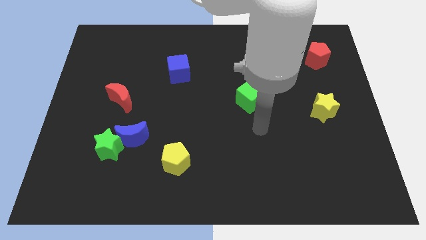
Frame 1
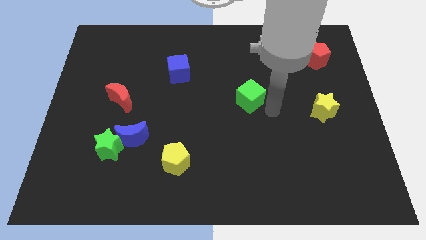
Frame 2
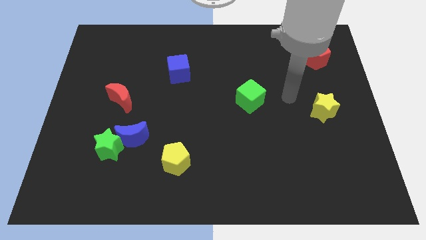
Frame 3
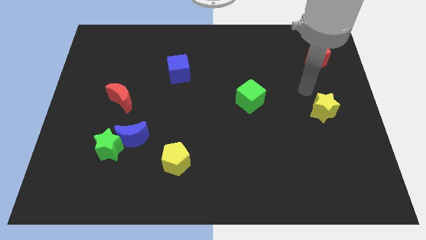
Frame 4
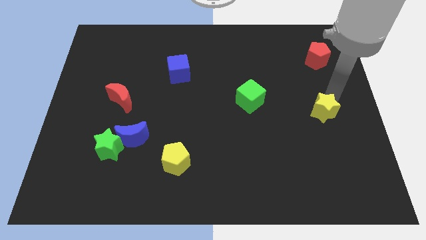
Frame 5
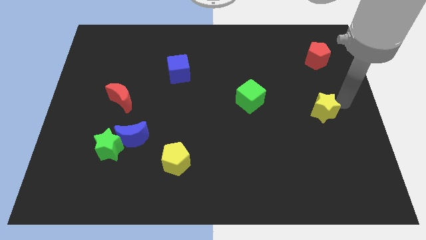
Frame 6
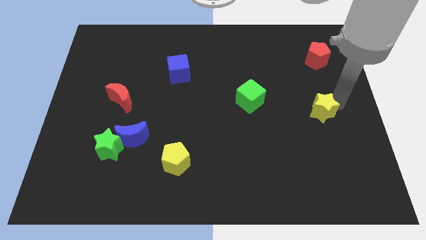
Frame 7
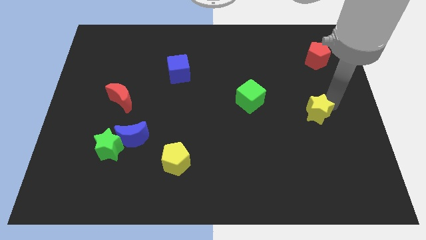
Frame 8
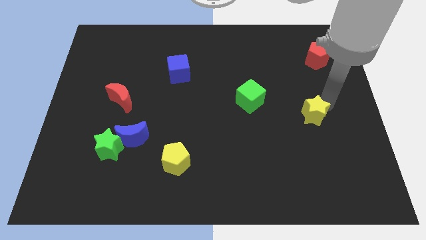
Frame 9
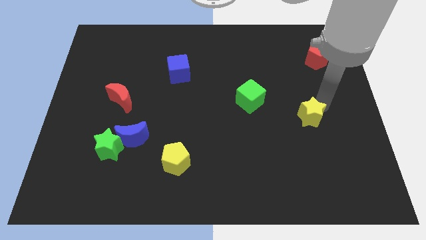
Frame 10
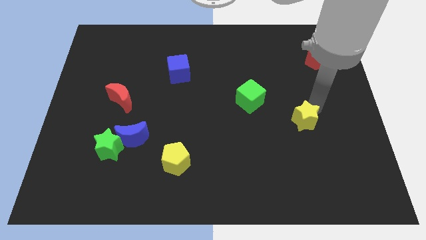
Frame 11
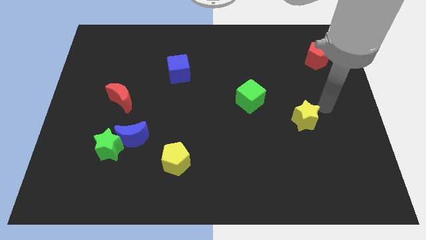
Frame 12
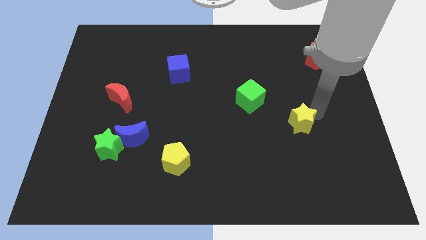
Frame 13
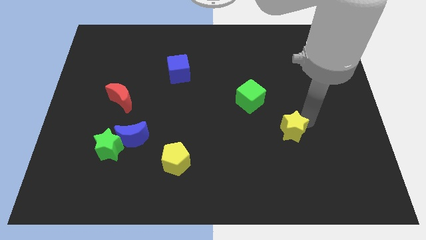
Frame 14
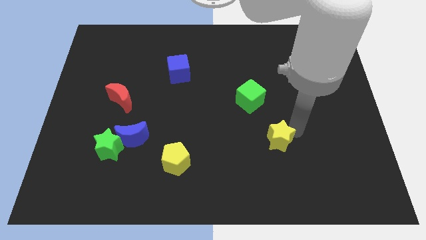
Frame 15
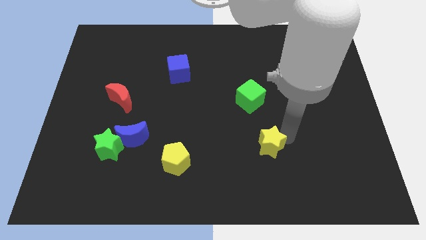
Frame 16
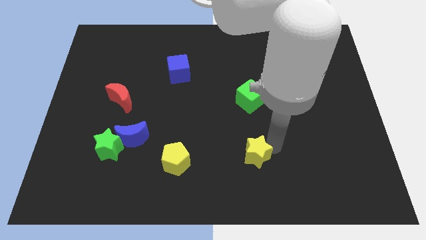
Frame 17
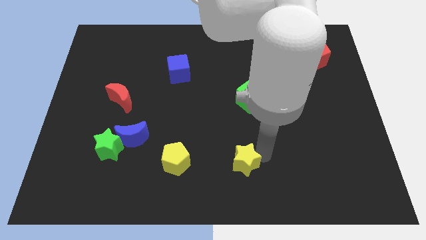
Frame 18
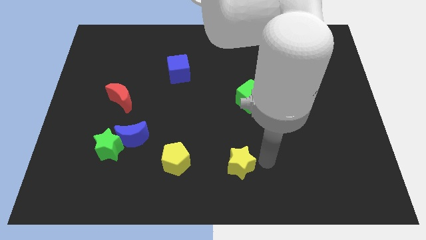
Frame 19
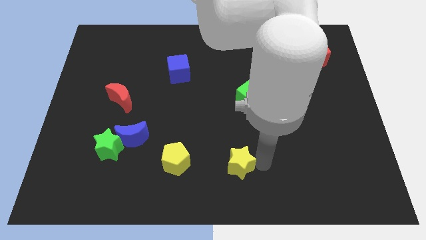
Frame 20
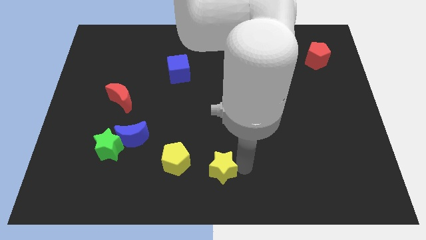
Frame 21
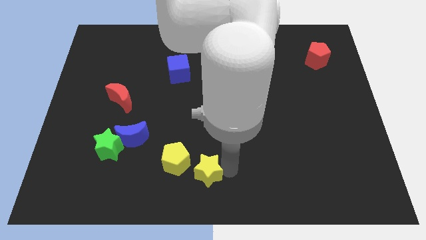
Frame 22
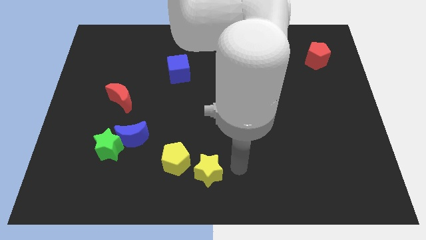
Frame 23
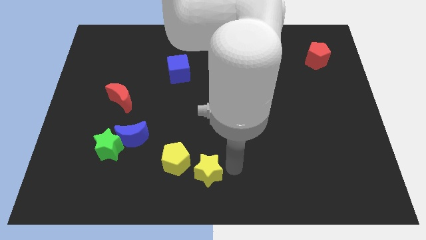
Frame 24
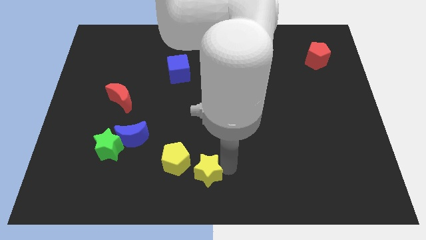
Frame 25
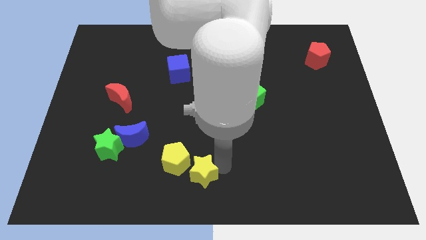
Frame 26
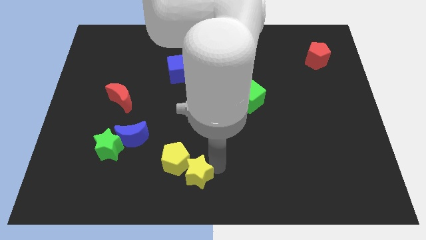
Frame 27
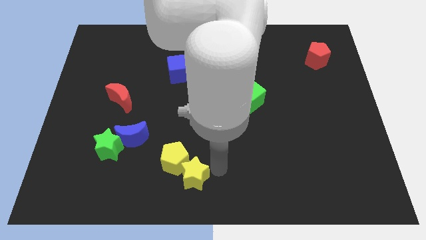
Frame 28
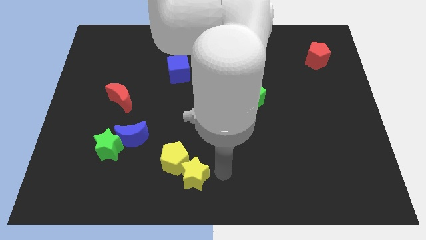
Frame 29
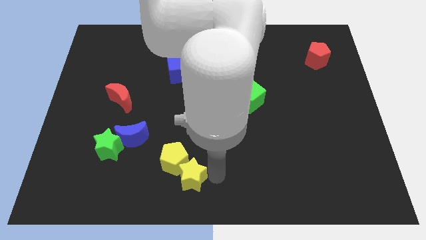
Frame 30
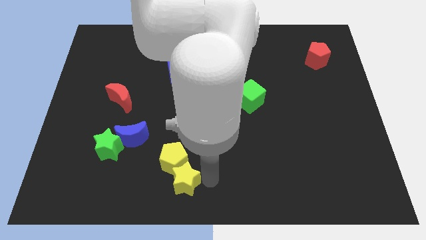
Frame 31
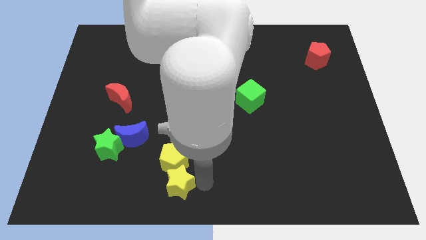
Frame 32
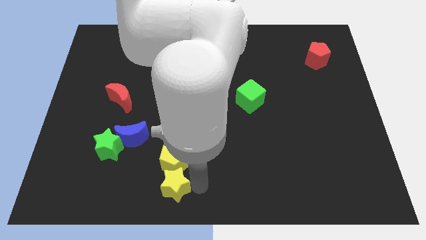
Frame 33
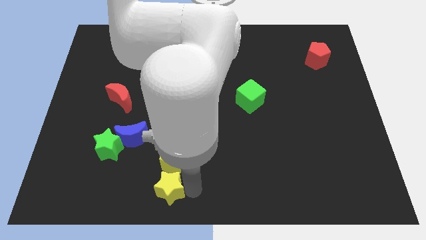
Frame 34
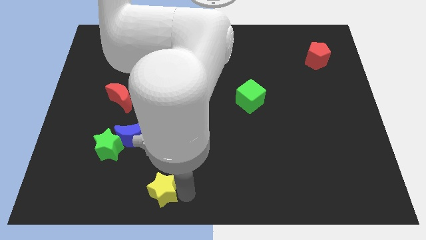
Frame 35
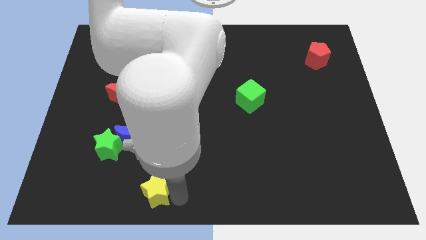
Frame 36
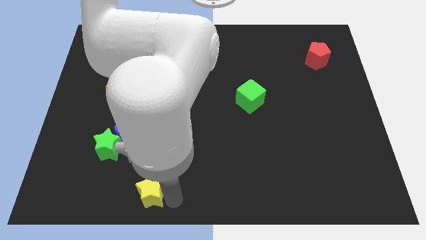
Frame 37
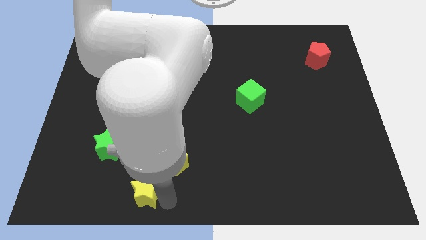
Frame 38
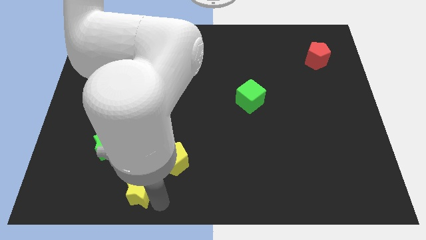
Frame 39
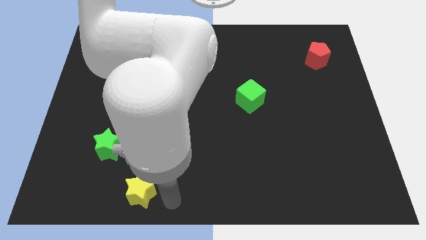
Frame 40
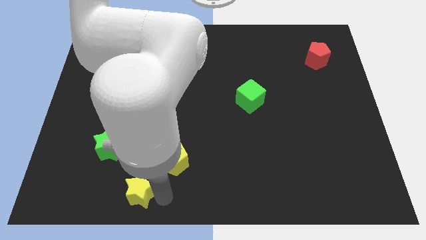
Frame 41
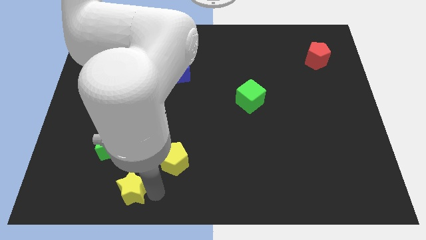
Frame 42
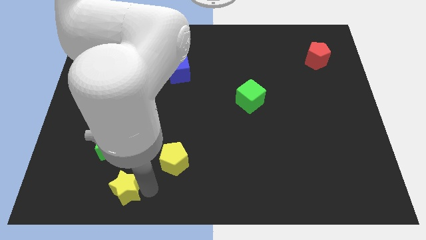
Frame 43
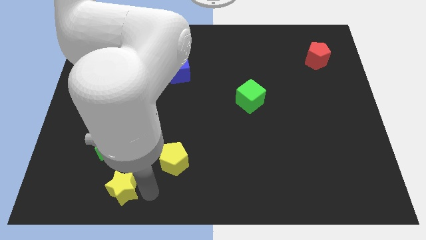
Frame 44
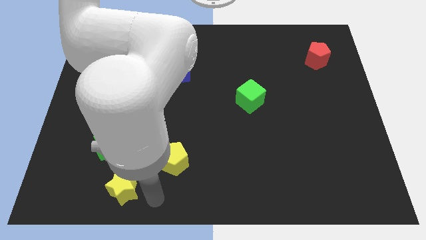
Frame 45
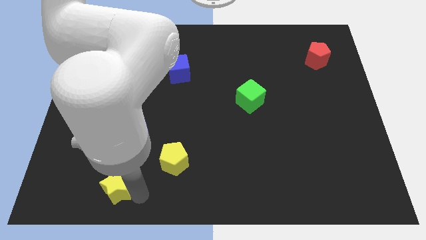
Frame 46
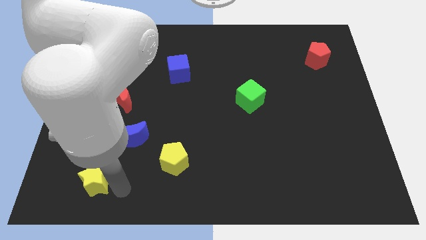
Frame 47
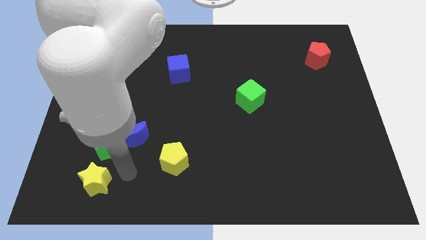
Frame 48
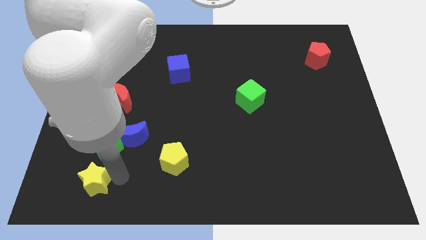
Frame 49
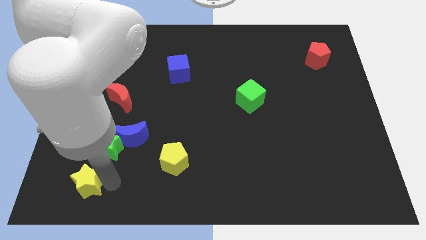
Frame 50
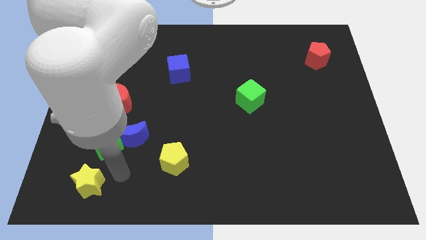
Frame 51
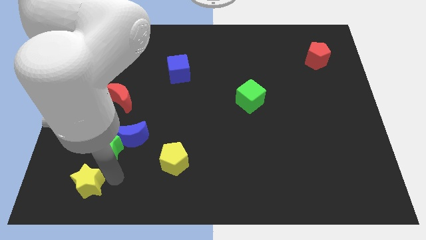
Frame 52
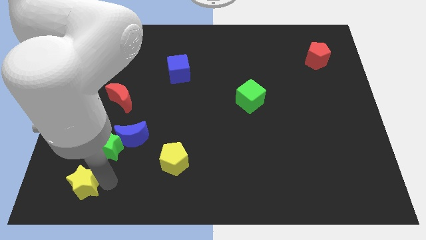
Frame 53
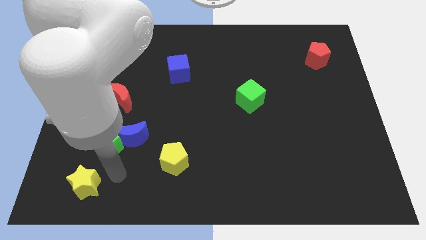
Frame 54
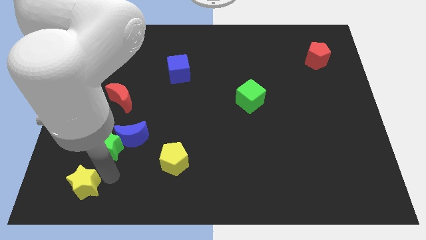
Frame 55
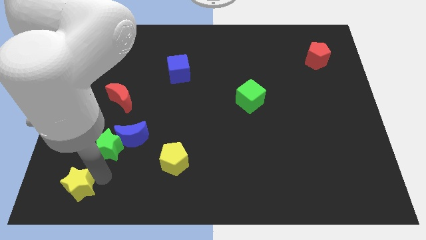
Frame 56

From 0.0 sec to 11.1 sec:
slide the yellow star to the bottom left

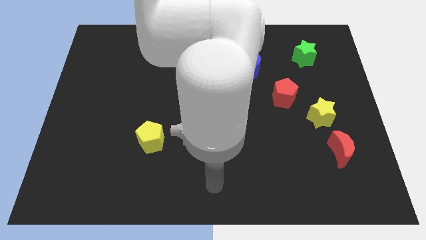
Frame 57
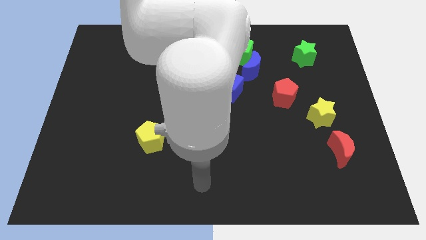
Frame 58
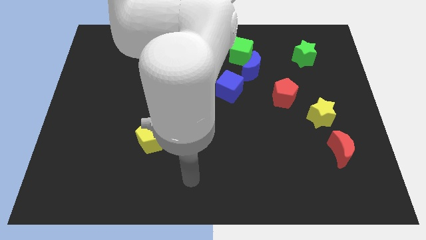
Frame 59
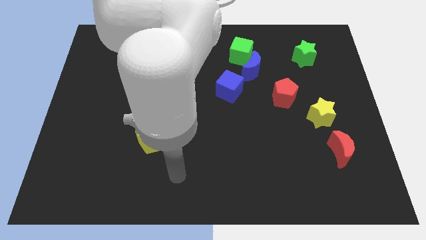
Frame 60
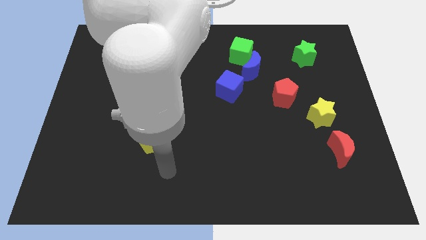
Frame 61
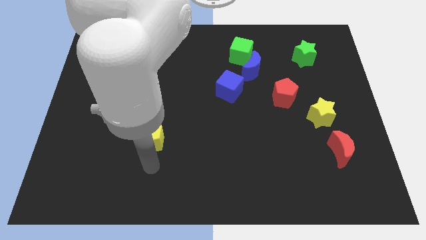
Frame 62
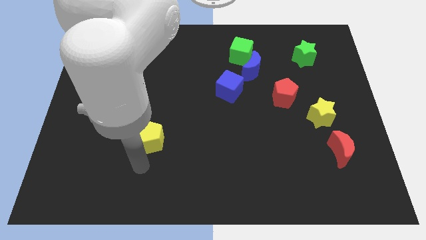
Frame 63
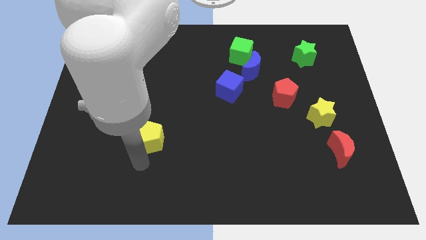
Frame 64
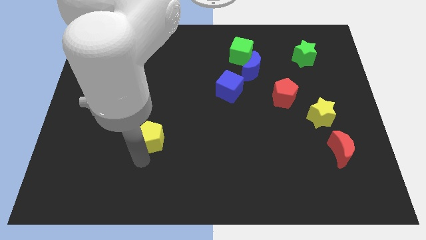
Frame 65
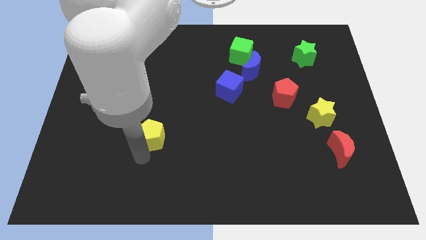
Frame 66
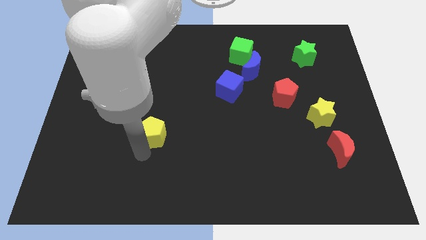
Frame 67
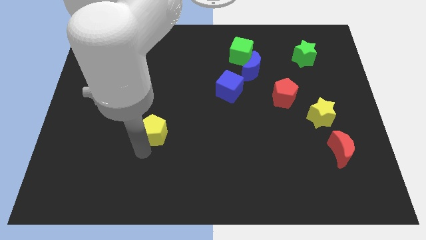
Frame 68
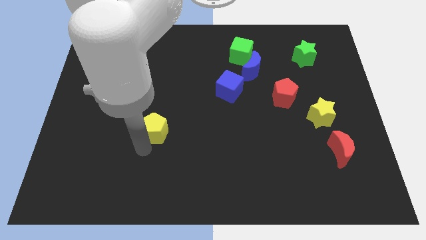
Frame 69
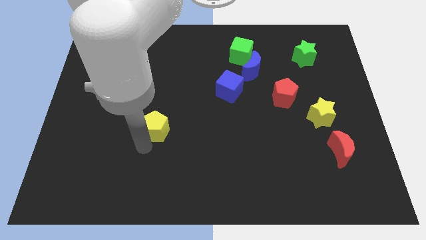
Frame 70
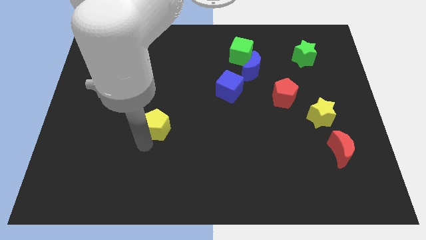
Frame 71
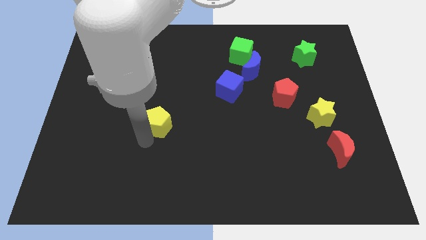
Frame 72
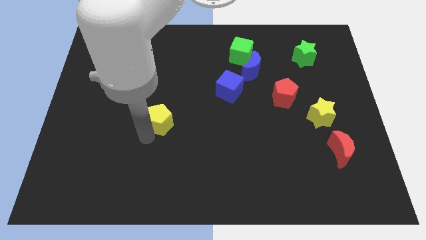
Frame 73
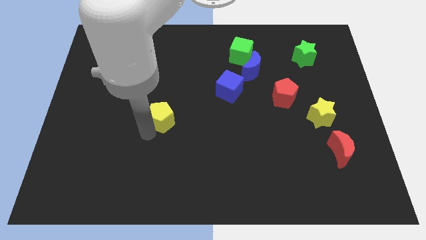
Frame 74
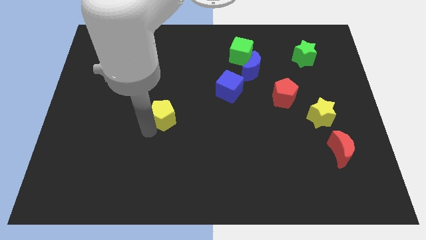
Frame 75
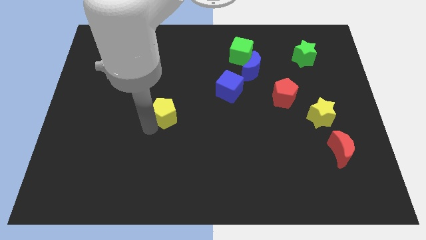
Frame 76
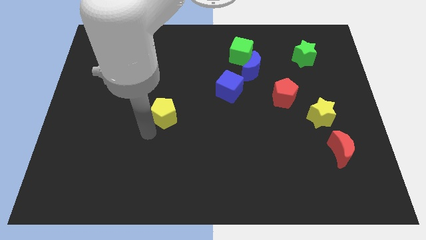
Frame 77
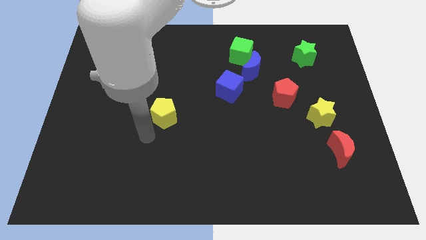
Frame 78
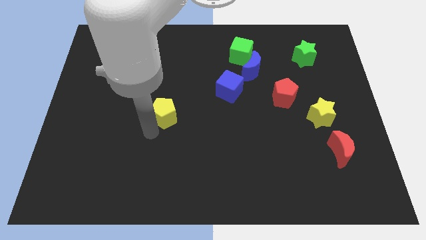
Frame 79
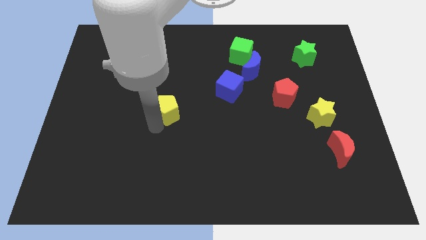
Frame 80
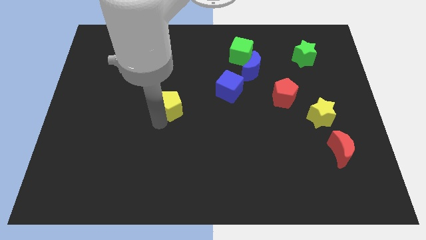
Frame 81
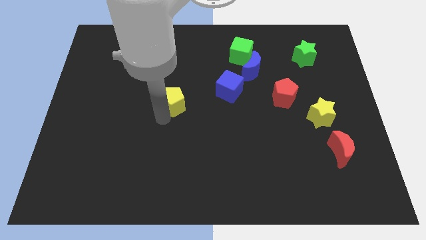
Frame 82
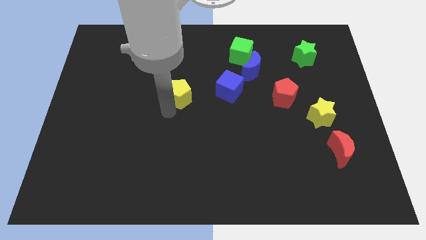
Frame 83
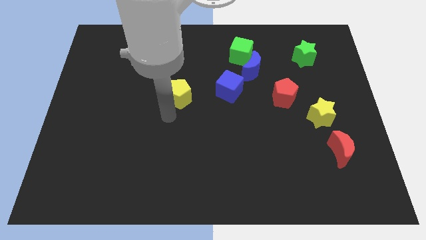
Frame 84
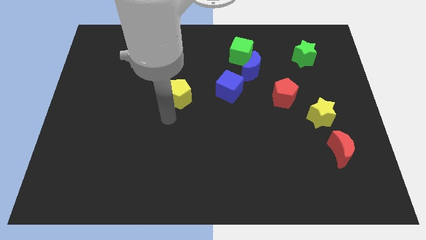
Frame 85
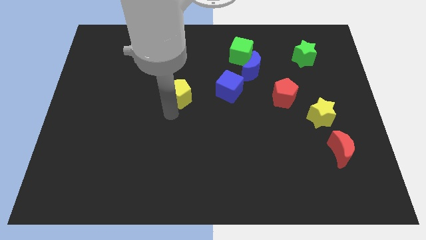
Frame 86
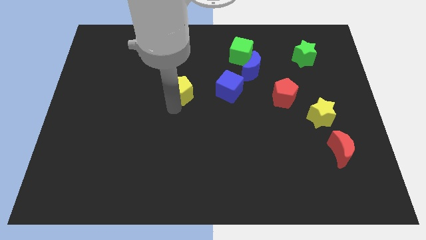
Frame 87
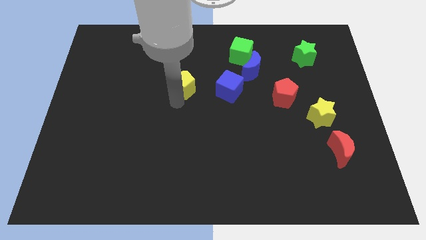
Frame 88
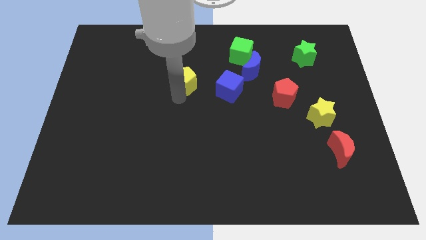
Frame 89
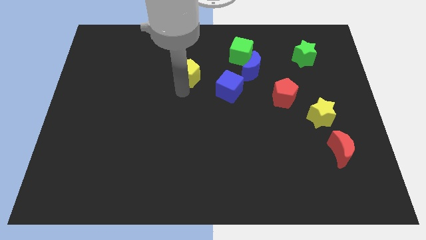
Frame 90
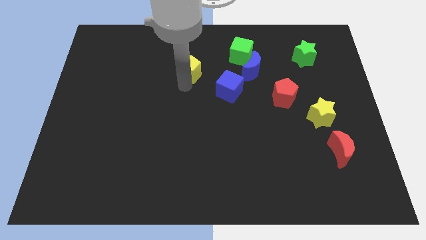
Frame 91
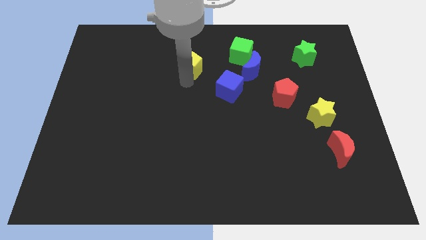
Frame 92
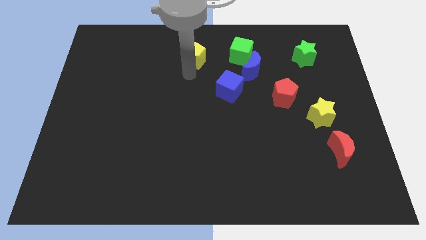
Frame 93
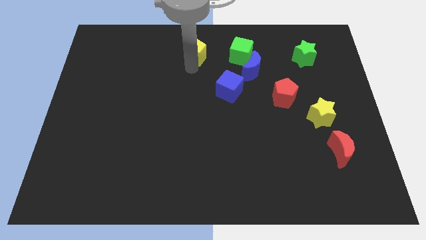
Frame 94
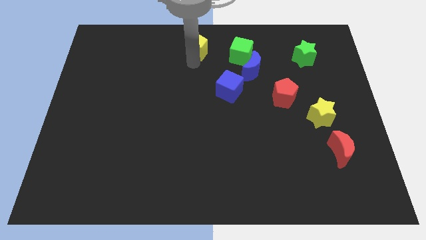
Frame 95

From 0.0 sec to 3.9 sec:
move the yellow pentagon to the towards your base
